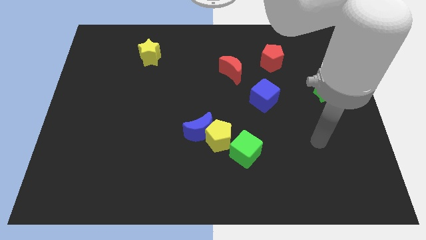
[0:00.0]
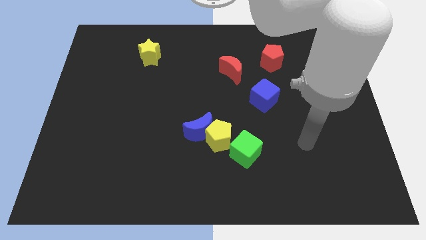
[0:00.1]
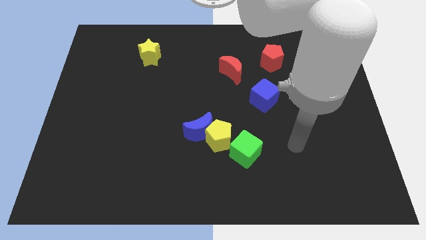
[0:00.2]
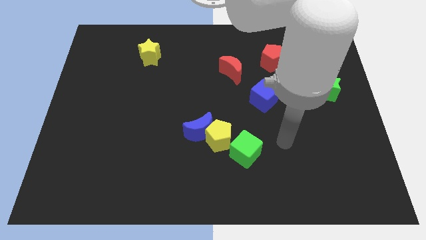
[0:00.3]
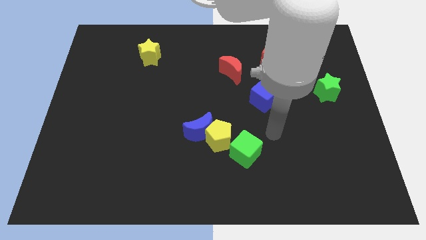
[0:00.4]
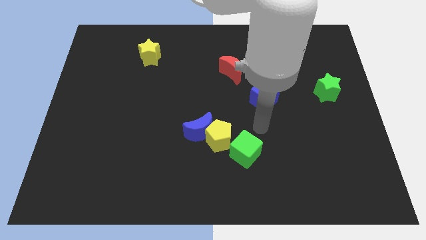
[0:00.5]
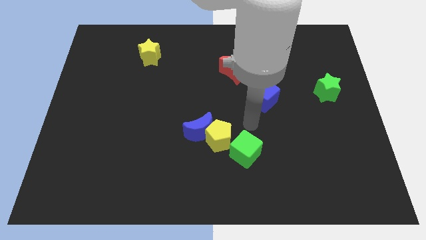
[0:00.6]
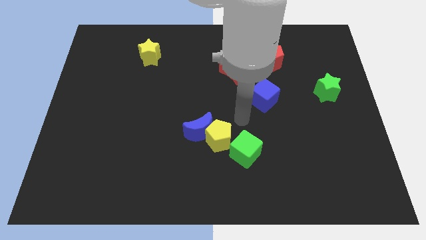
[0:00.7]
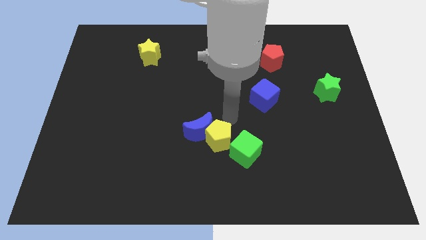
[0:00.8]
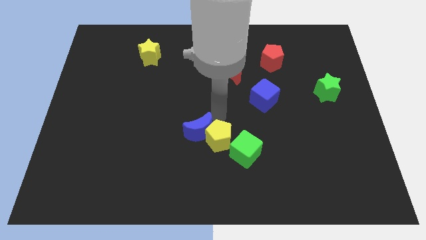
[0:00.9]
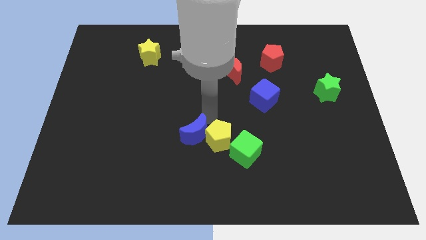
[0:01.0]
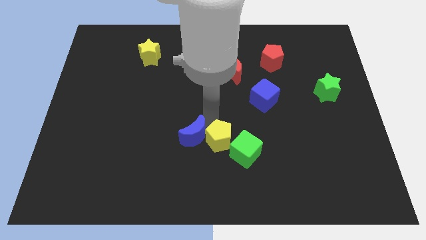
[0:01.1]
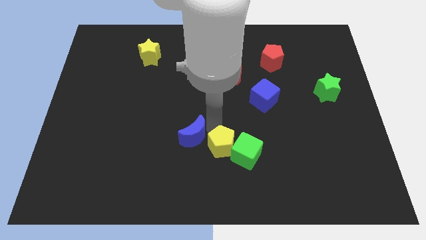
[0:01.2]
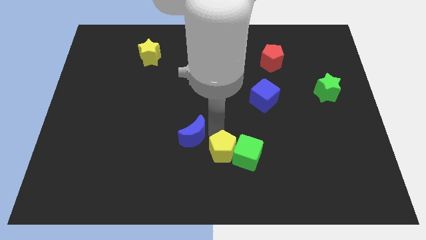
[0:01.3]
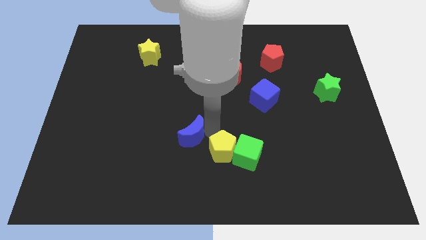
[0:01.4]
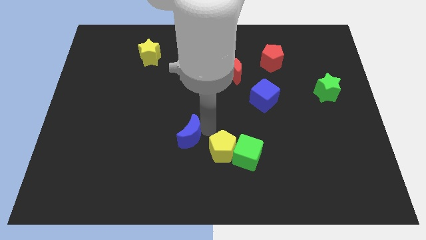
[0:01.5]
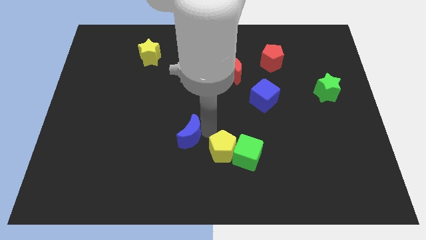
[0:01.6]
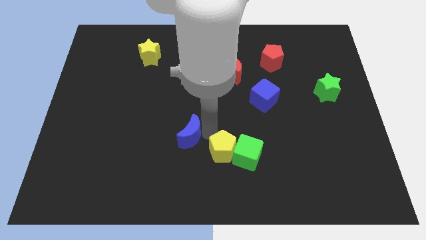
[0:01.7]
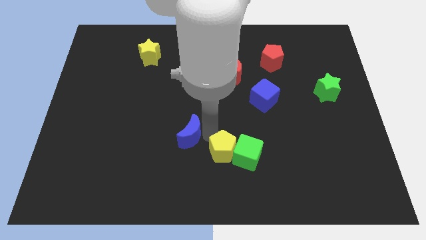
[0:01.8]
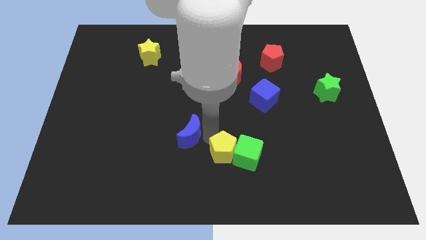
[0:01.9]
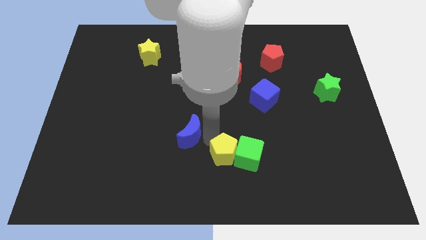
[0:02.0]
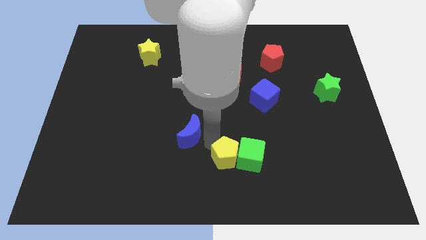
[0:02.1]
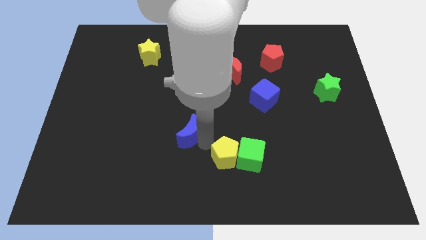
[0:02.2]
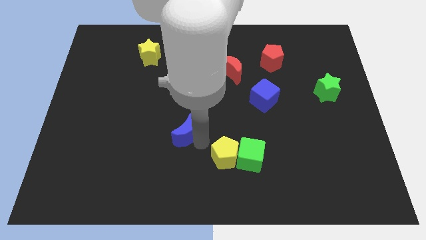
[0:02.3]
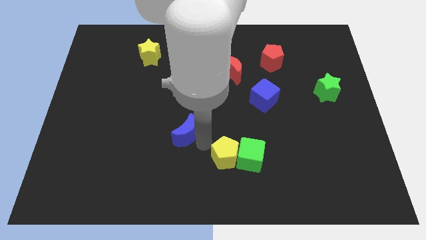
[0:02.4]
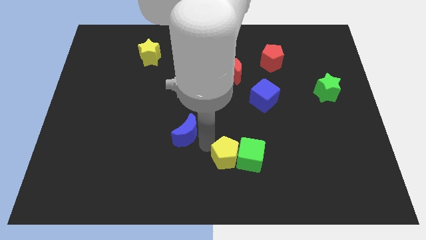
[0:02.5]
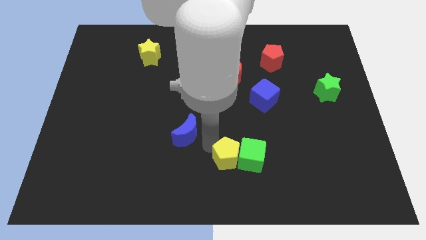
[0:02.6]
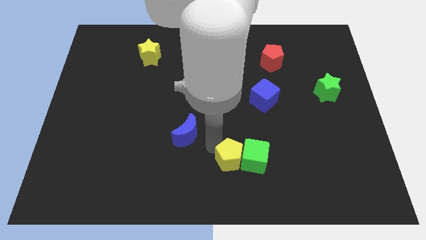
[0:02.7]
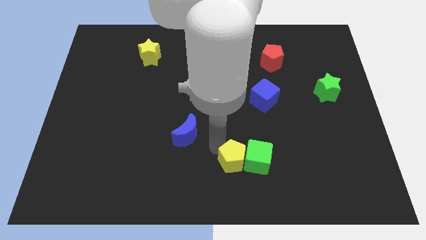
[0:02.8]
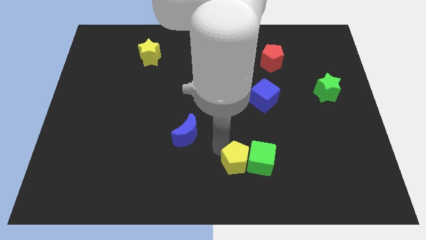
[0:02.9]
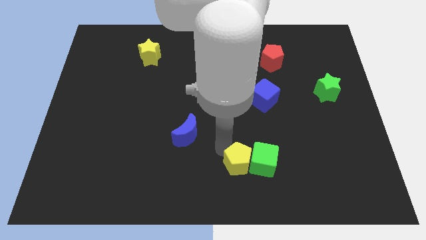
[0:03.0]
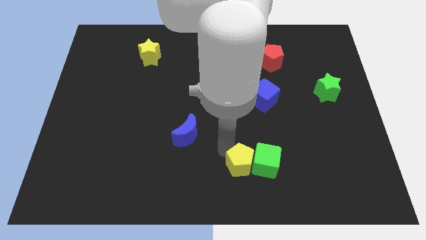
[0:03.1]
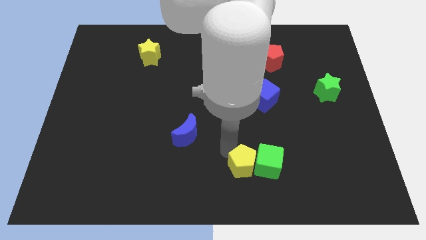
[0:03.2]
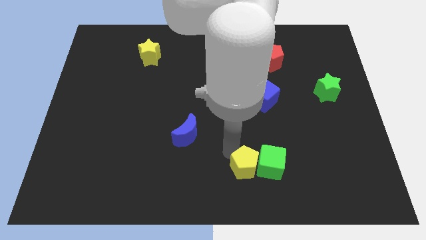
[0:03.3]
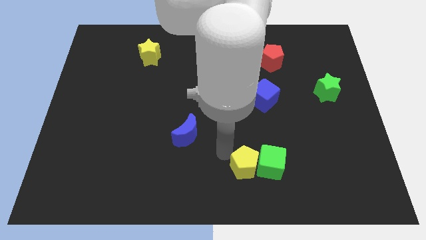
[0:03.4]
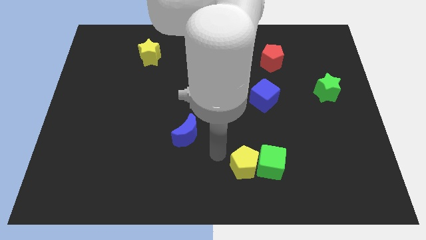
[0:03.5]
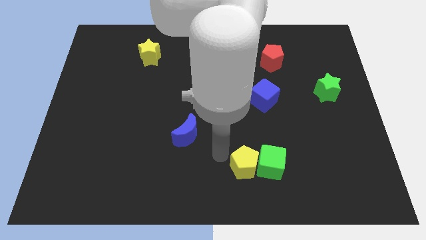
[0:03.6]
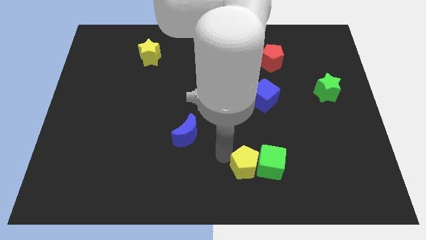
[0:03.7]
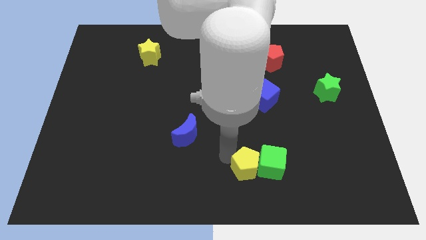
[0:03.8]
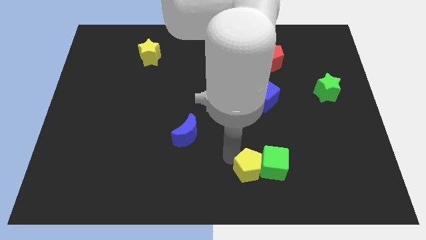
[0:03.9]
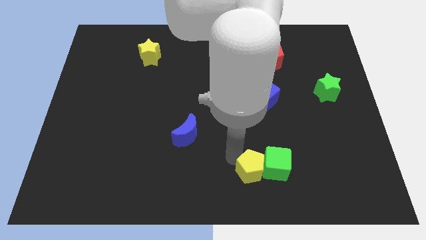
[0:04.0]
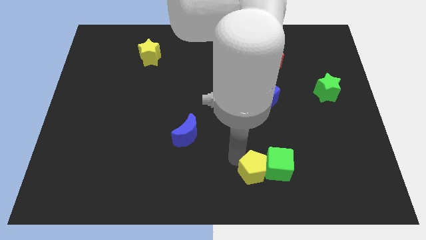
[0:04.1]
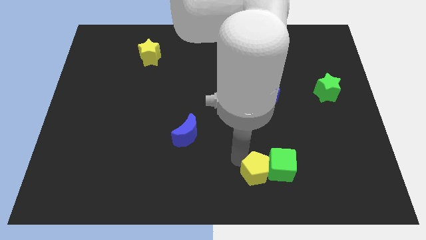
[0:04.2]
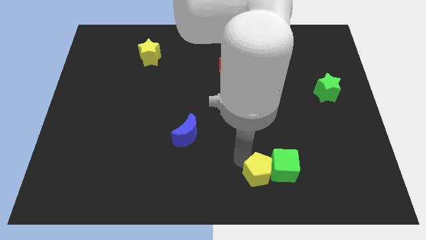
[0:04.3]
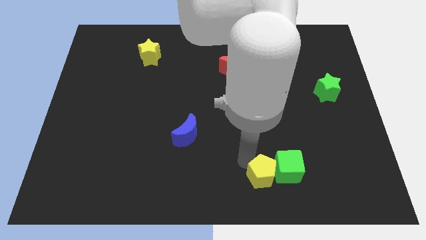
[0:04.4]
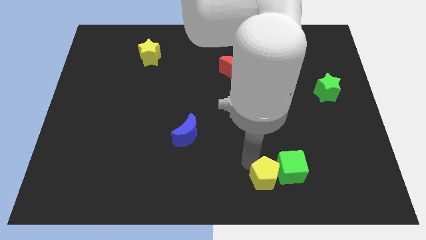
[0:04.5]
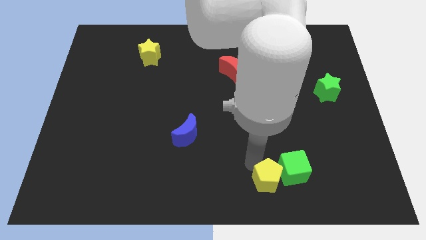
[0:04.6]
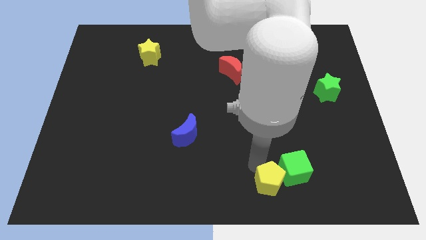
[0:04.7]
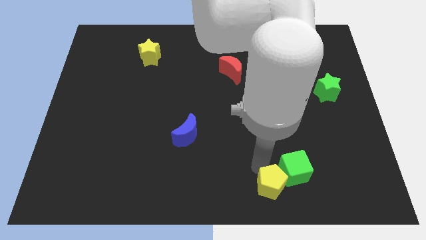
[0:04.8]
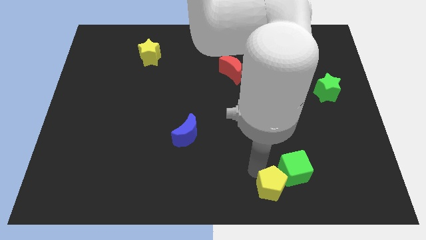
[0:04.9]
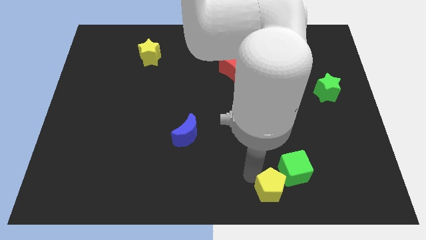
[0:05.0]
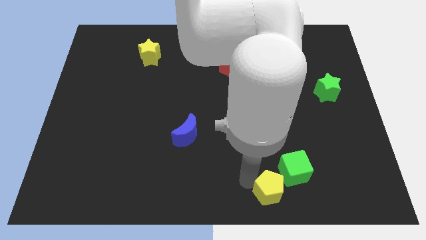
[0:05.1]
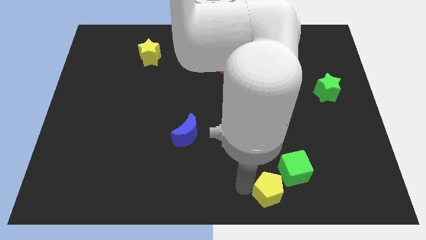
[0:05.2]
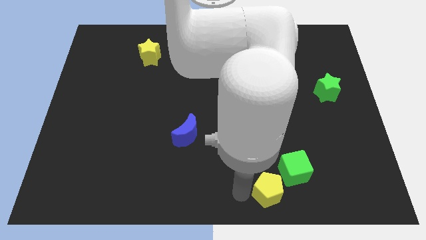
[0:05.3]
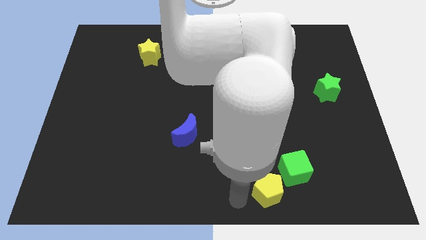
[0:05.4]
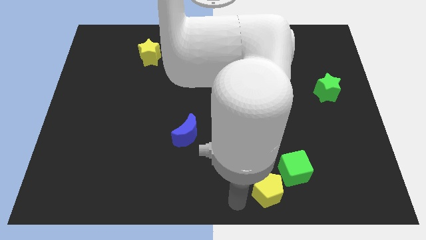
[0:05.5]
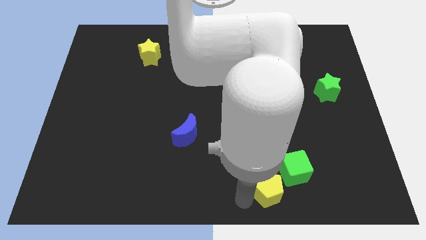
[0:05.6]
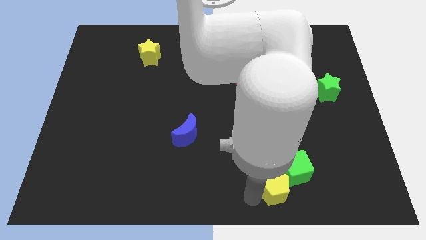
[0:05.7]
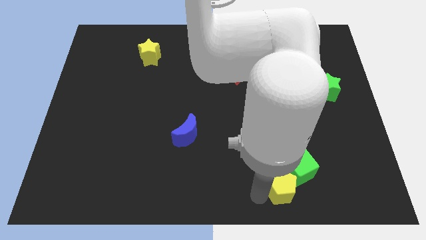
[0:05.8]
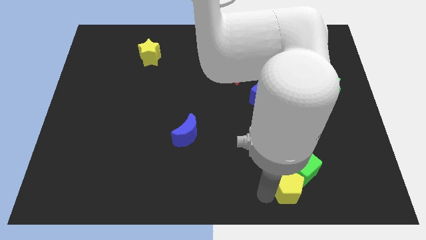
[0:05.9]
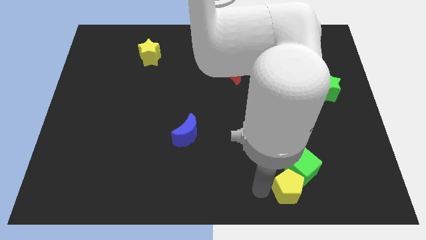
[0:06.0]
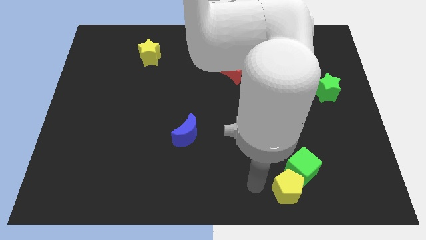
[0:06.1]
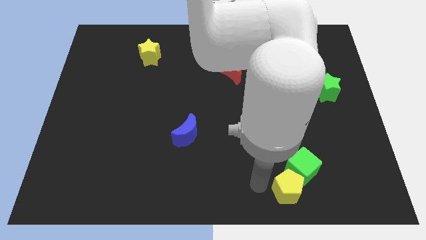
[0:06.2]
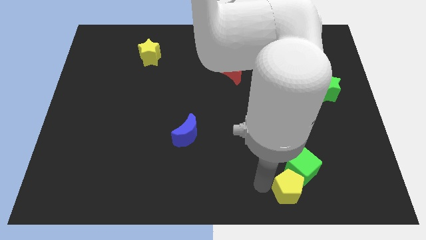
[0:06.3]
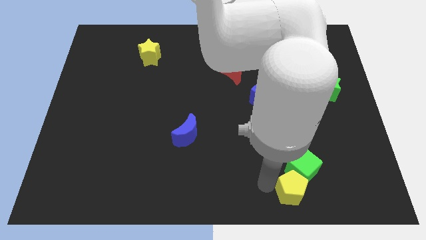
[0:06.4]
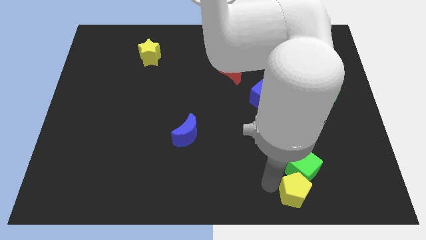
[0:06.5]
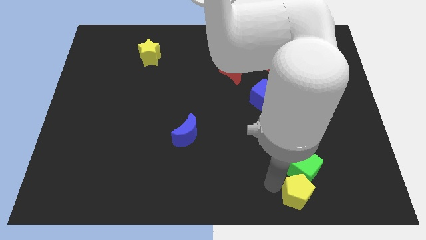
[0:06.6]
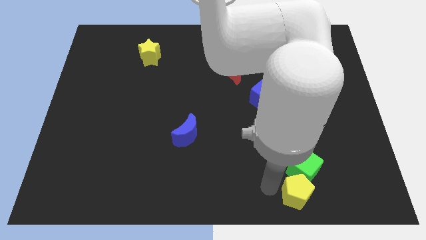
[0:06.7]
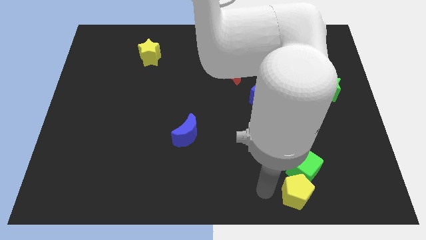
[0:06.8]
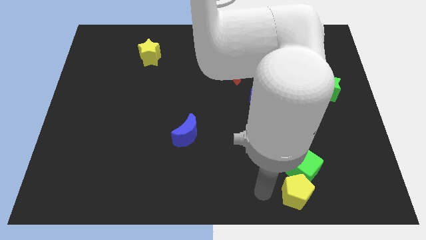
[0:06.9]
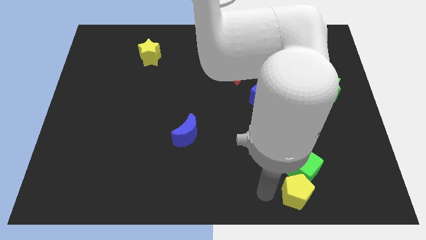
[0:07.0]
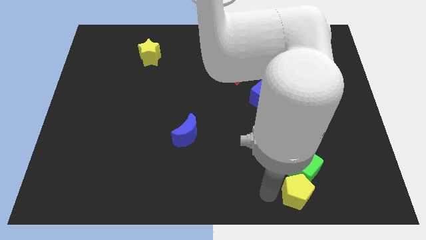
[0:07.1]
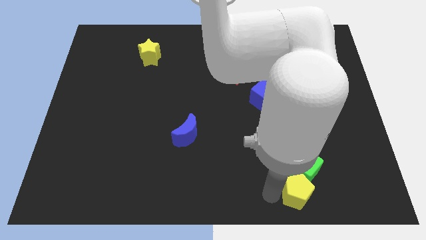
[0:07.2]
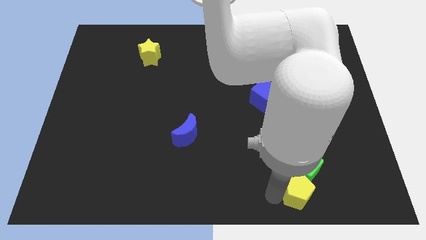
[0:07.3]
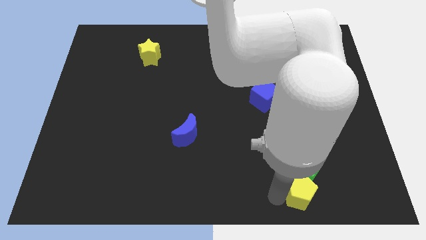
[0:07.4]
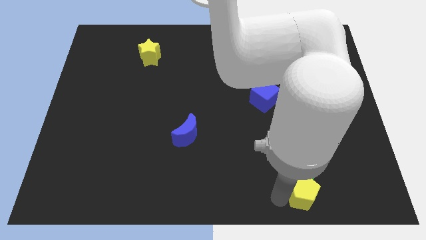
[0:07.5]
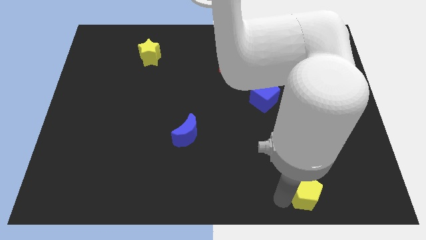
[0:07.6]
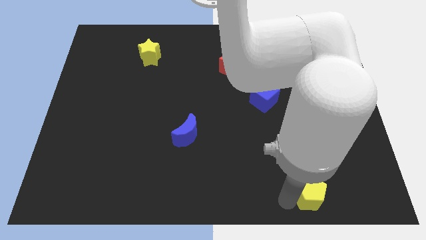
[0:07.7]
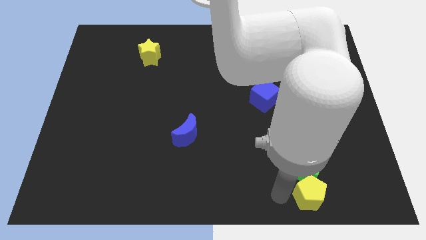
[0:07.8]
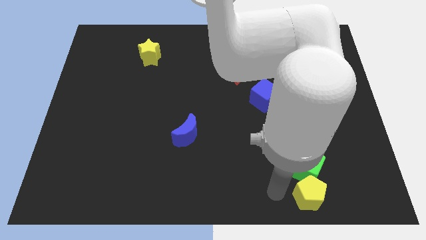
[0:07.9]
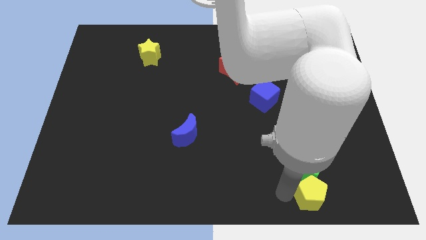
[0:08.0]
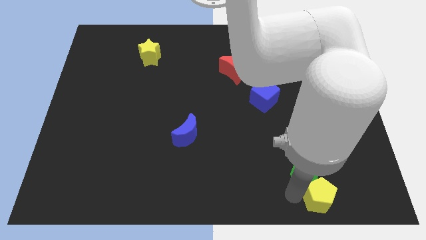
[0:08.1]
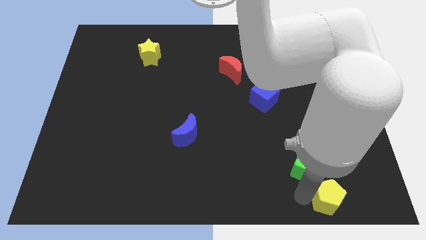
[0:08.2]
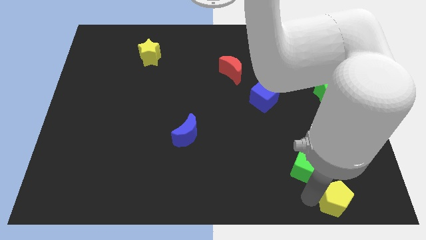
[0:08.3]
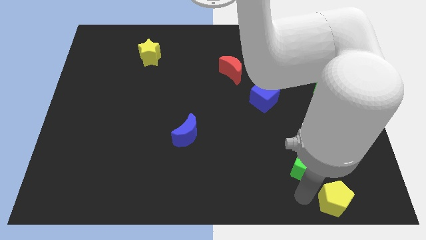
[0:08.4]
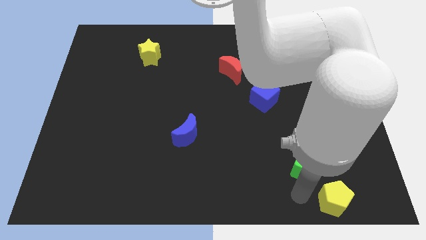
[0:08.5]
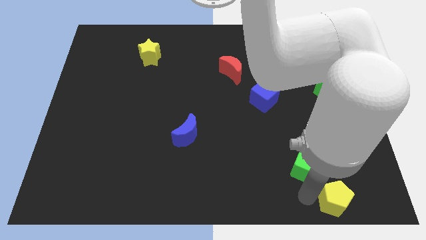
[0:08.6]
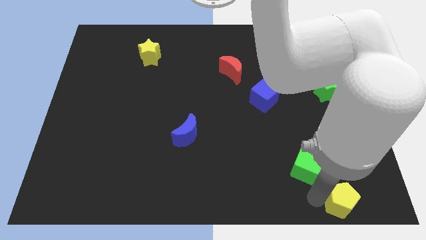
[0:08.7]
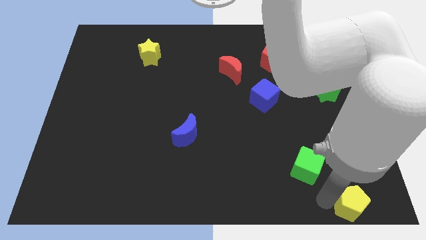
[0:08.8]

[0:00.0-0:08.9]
put the yellow pentagon to the bottom right corner
